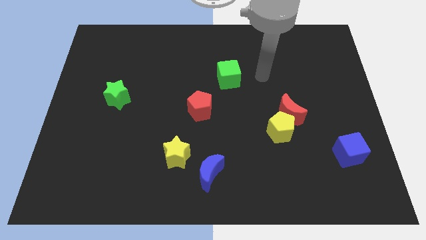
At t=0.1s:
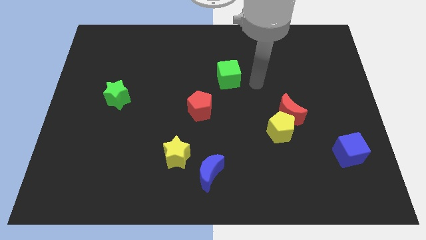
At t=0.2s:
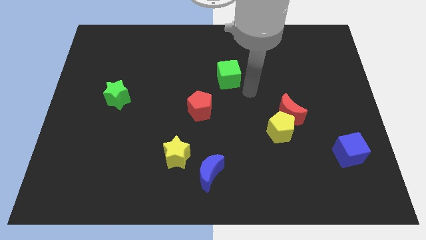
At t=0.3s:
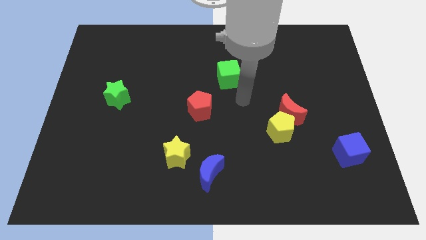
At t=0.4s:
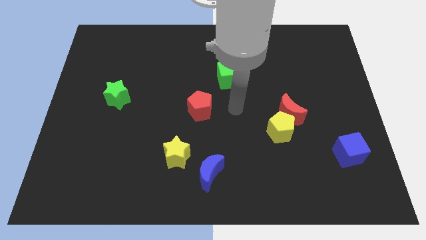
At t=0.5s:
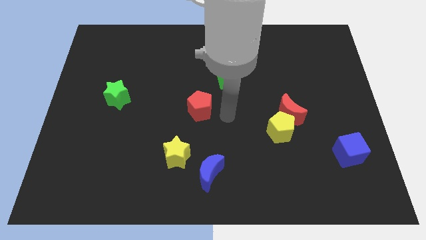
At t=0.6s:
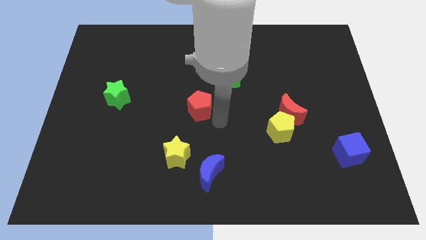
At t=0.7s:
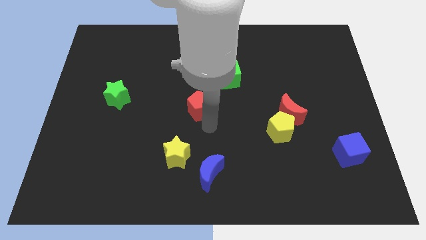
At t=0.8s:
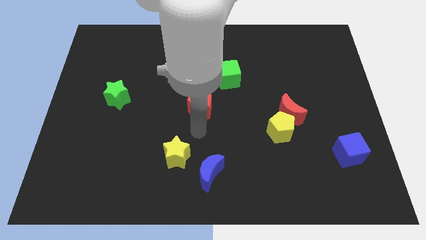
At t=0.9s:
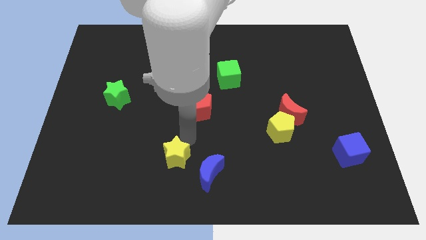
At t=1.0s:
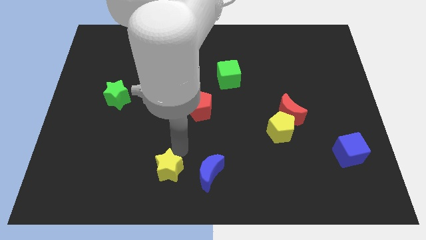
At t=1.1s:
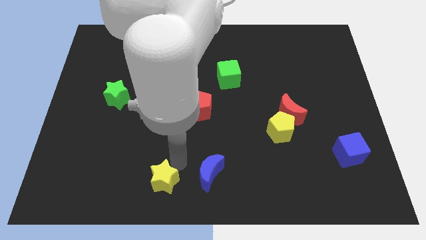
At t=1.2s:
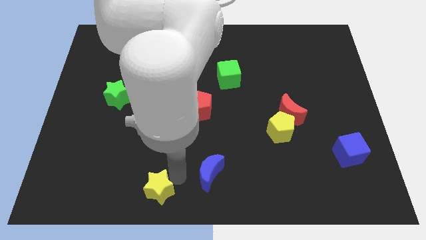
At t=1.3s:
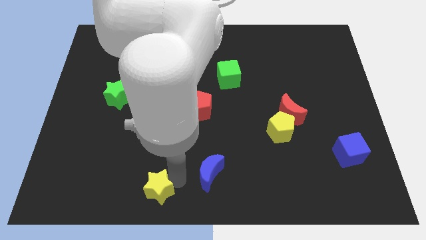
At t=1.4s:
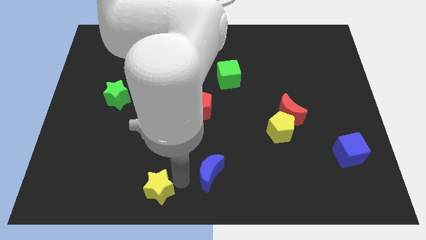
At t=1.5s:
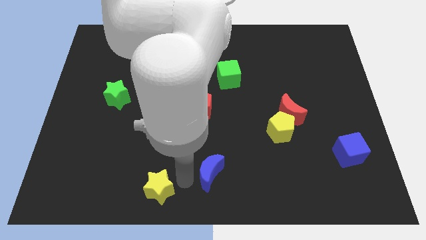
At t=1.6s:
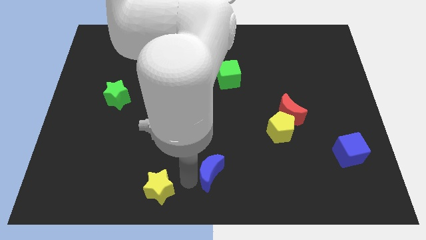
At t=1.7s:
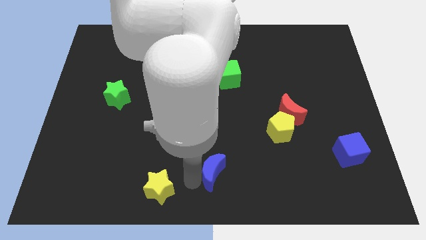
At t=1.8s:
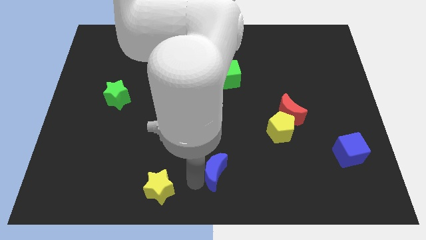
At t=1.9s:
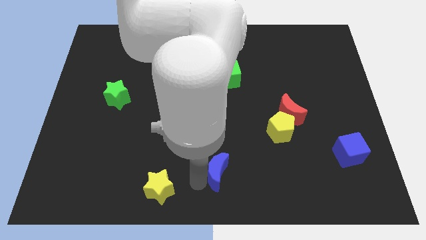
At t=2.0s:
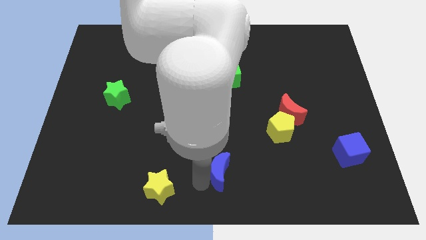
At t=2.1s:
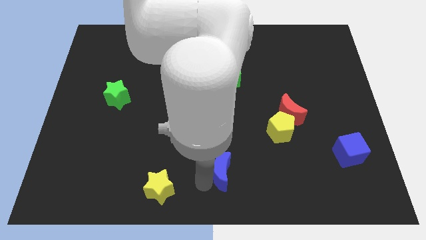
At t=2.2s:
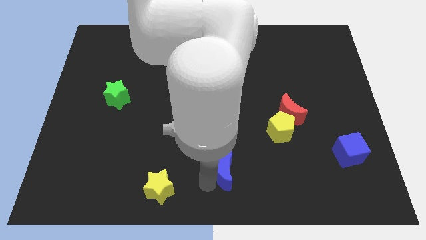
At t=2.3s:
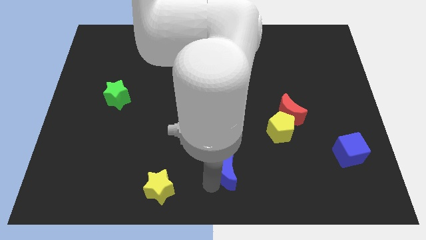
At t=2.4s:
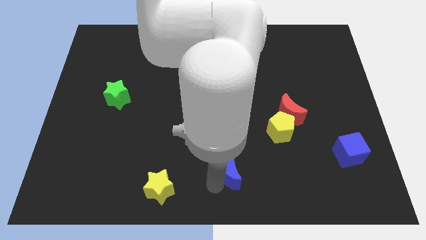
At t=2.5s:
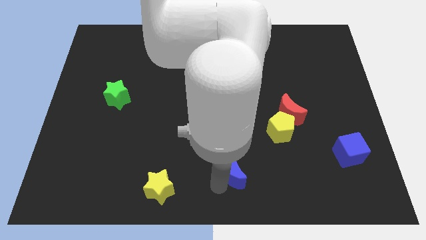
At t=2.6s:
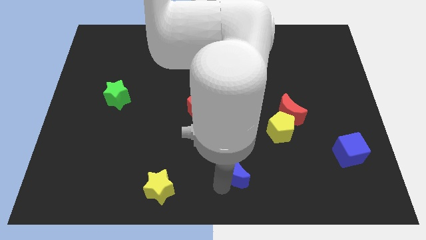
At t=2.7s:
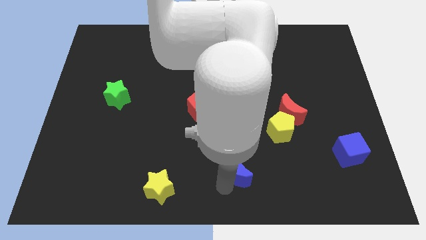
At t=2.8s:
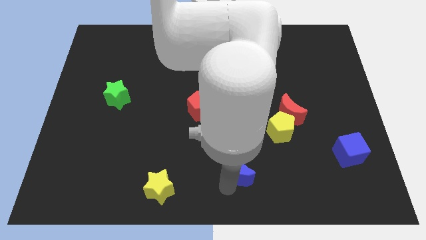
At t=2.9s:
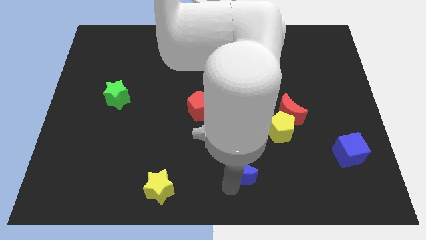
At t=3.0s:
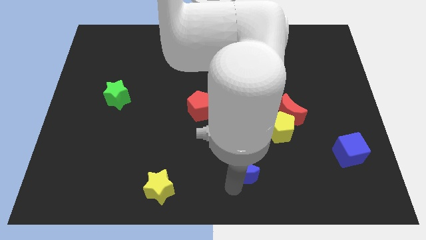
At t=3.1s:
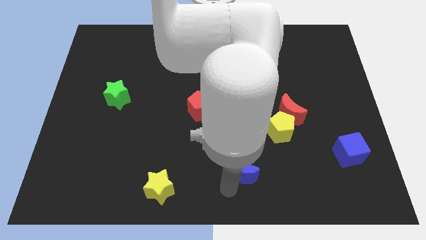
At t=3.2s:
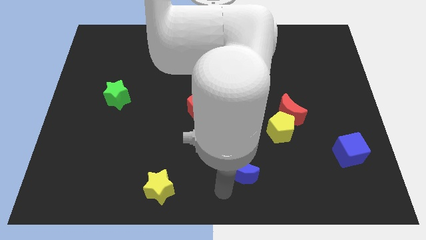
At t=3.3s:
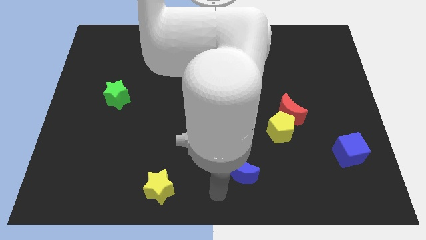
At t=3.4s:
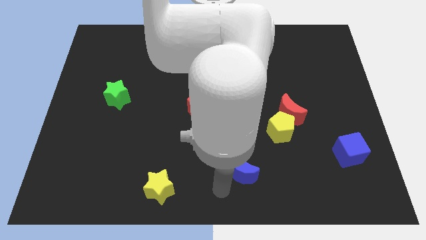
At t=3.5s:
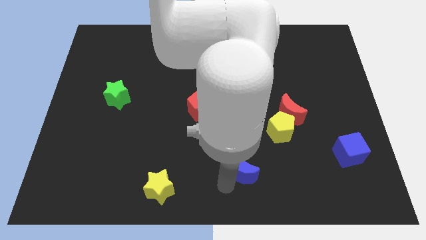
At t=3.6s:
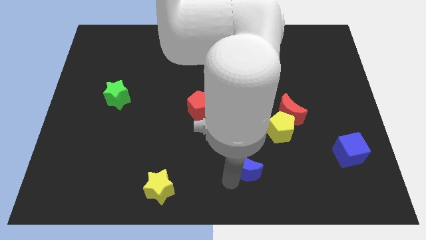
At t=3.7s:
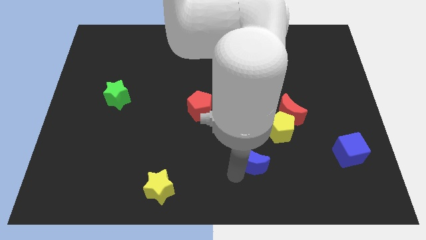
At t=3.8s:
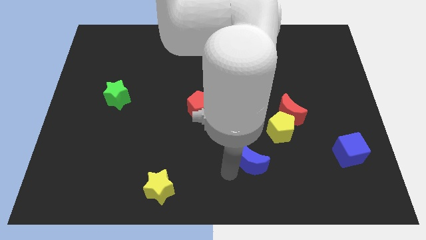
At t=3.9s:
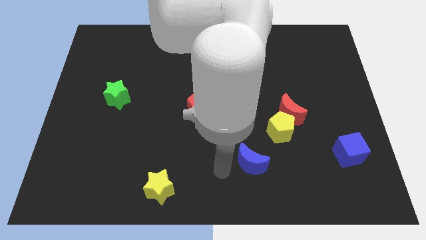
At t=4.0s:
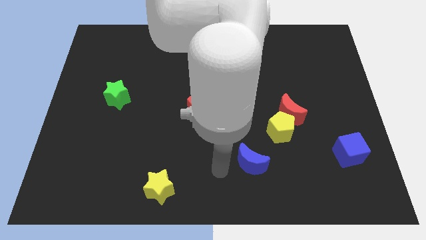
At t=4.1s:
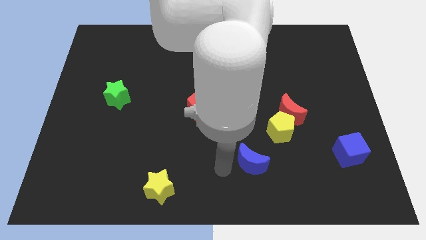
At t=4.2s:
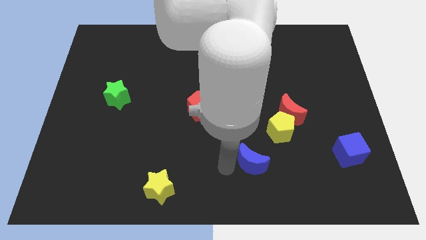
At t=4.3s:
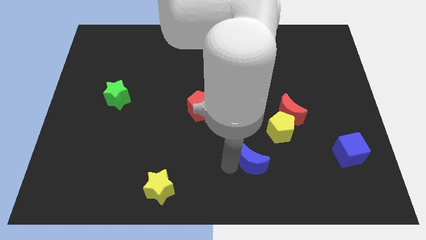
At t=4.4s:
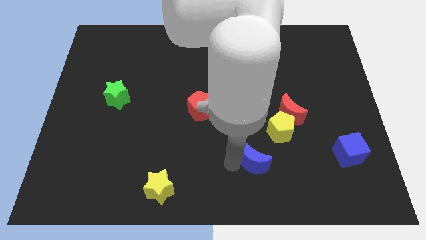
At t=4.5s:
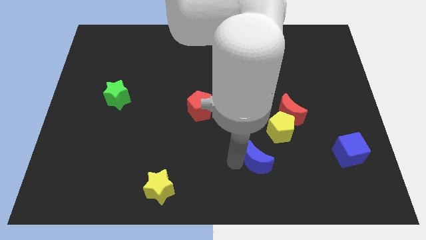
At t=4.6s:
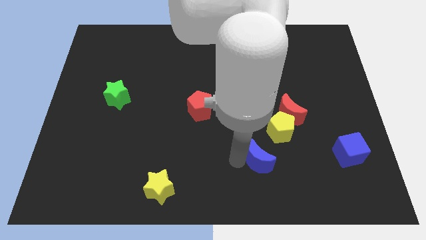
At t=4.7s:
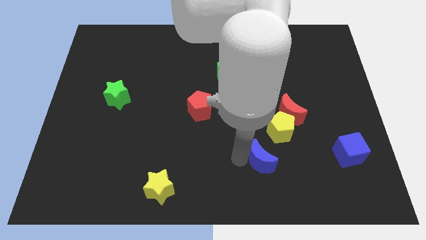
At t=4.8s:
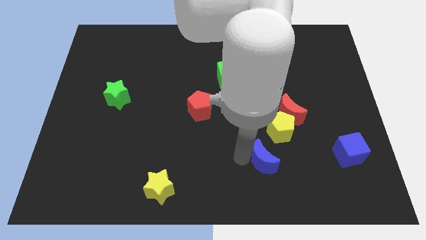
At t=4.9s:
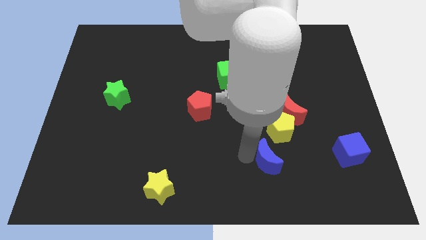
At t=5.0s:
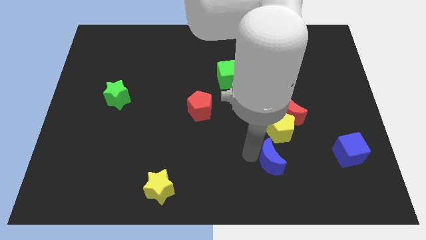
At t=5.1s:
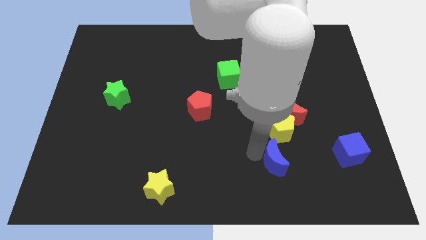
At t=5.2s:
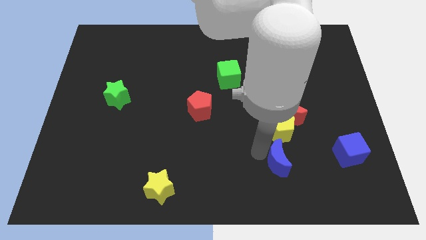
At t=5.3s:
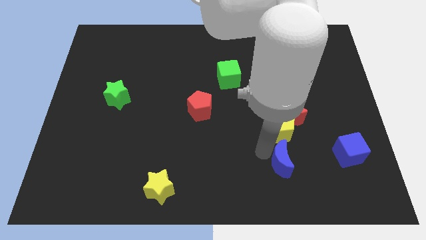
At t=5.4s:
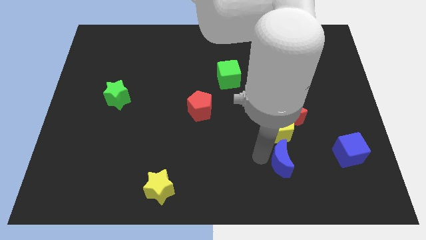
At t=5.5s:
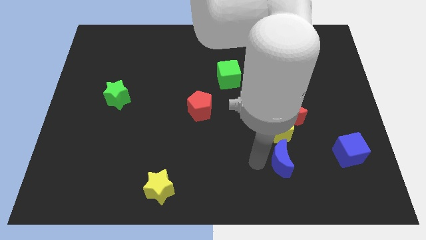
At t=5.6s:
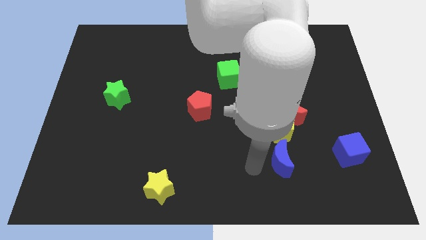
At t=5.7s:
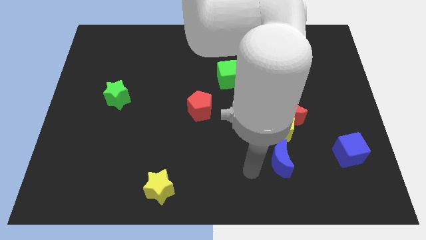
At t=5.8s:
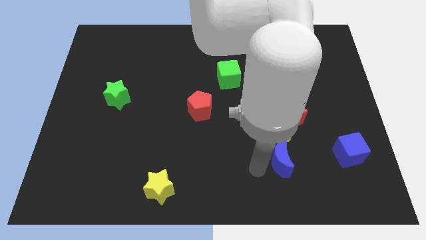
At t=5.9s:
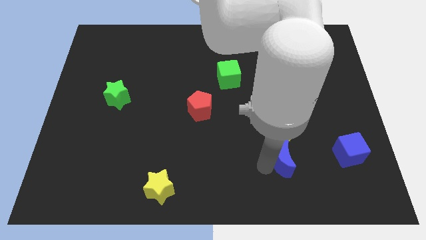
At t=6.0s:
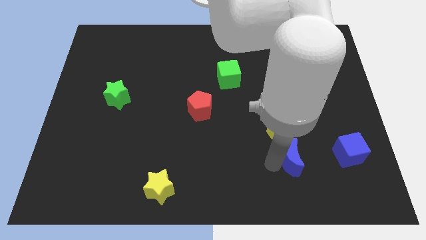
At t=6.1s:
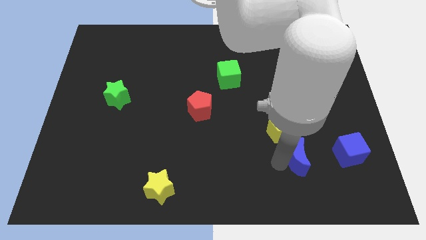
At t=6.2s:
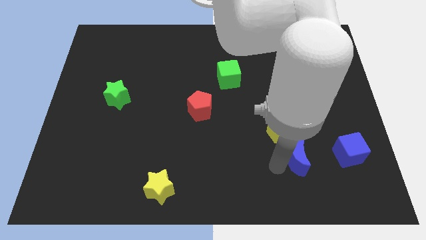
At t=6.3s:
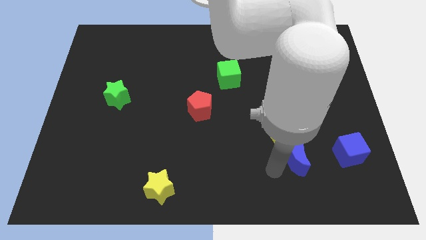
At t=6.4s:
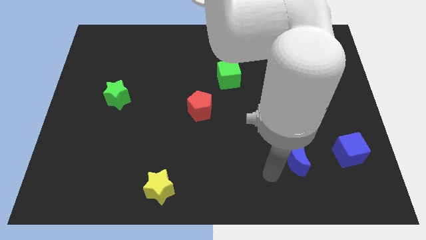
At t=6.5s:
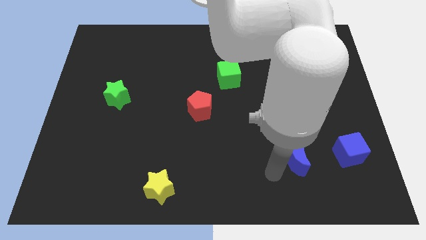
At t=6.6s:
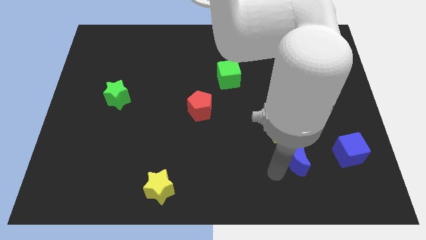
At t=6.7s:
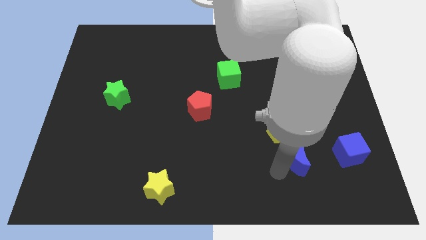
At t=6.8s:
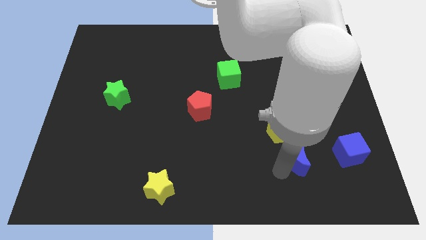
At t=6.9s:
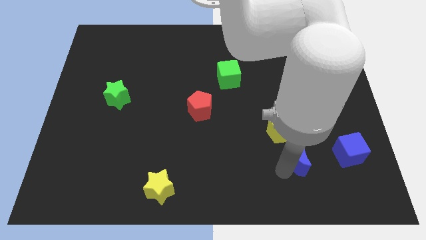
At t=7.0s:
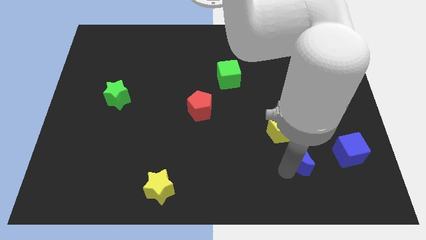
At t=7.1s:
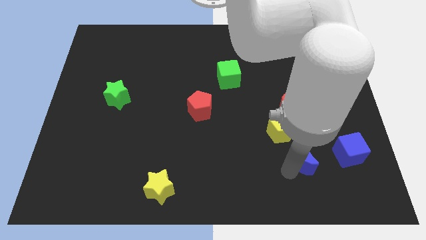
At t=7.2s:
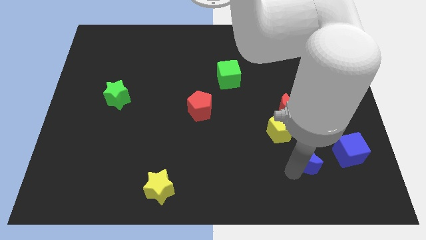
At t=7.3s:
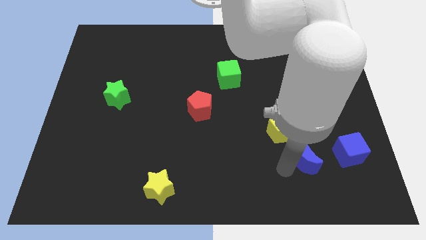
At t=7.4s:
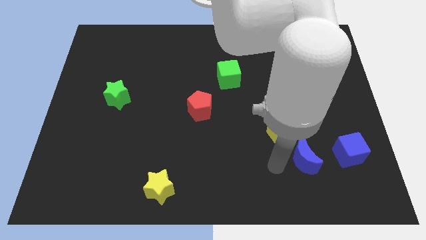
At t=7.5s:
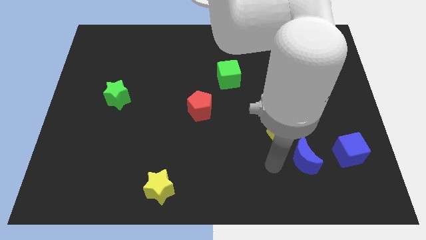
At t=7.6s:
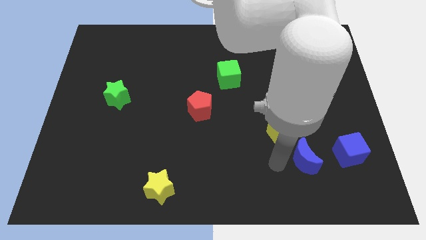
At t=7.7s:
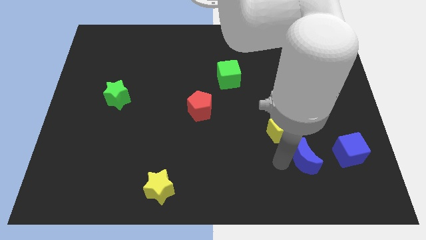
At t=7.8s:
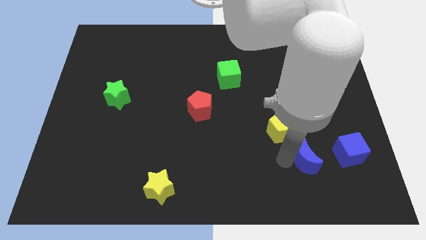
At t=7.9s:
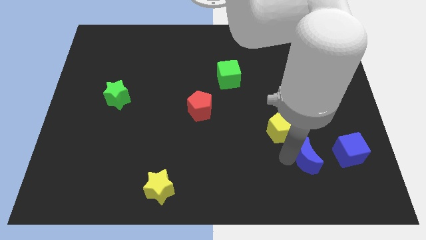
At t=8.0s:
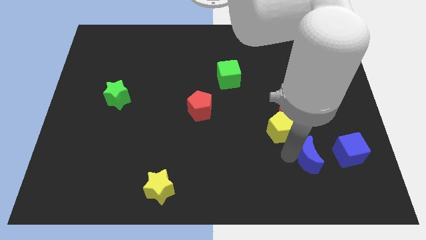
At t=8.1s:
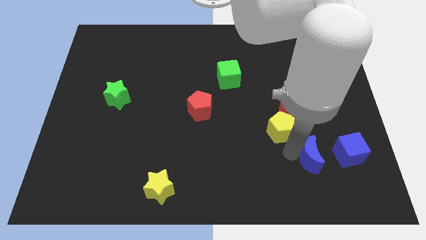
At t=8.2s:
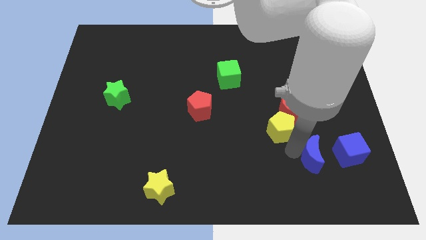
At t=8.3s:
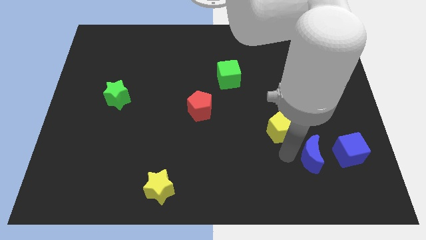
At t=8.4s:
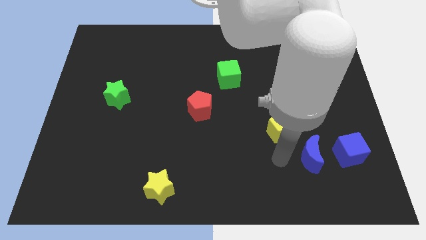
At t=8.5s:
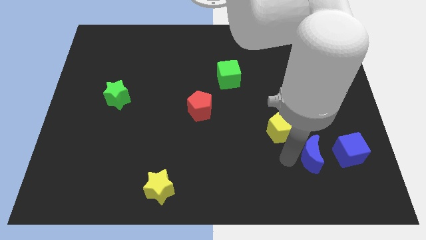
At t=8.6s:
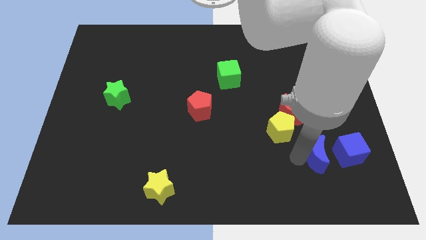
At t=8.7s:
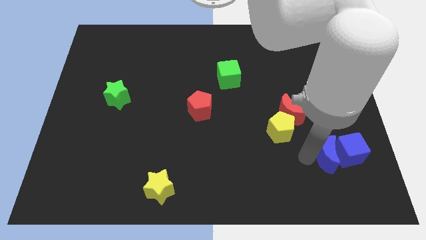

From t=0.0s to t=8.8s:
push the blue moon to the blue cube
